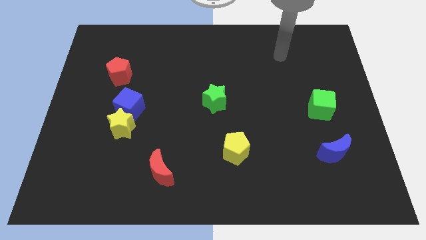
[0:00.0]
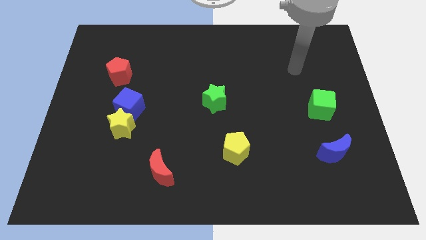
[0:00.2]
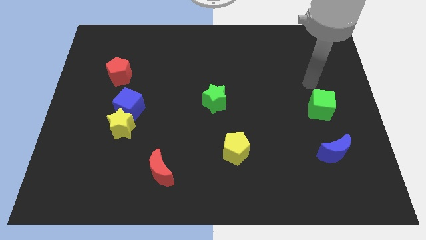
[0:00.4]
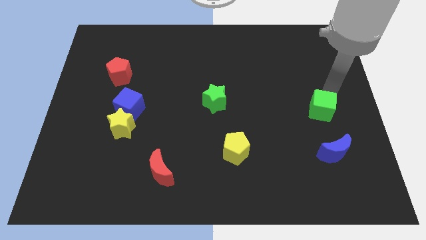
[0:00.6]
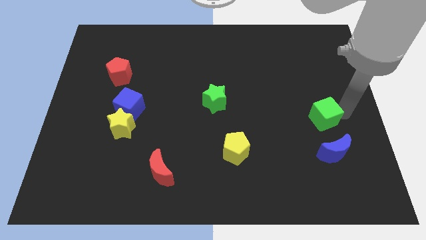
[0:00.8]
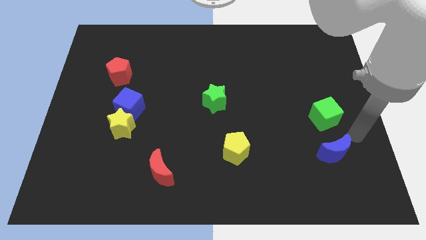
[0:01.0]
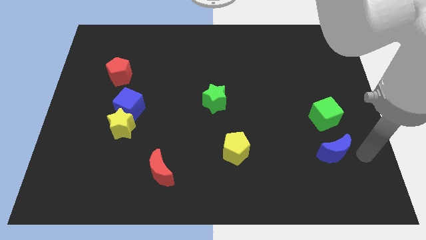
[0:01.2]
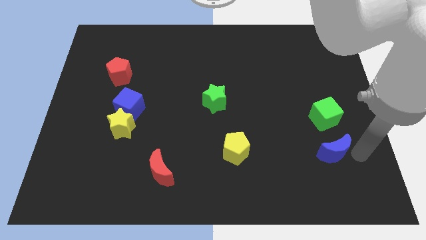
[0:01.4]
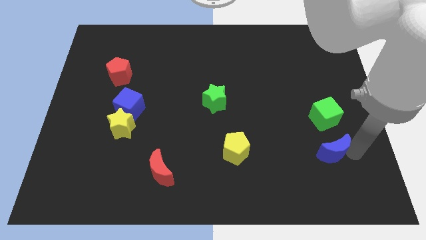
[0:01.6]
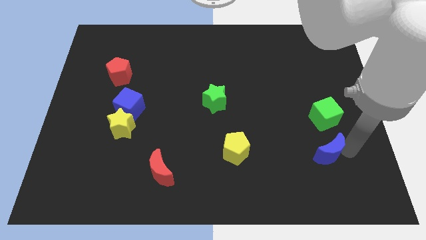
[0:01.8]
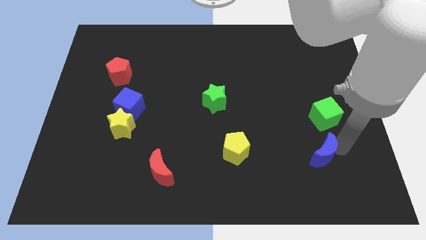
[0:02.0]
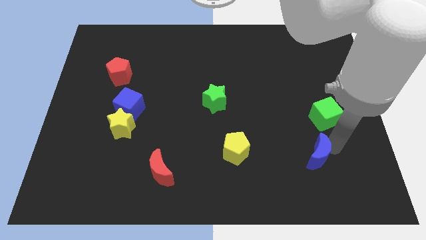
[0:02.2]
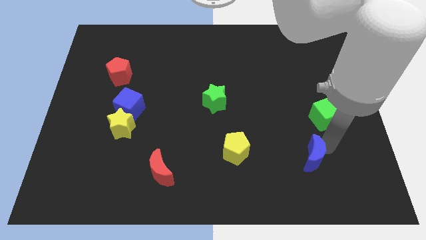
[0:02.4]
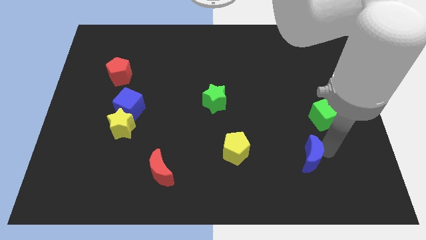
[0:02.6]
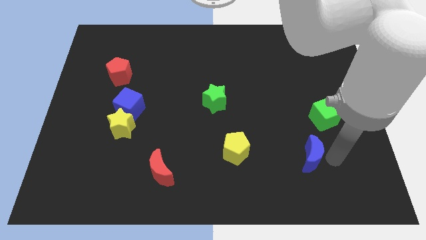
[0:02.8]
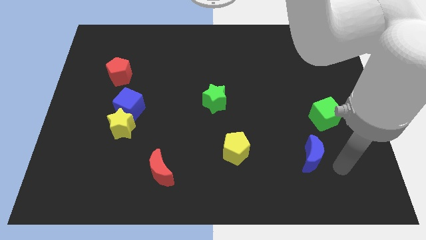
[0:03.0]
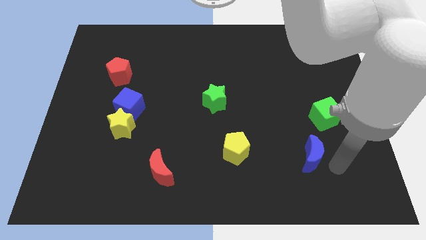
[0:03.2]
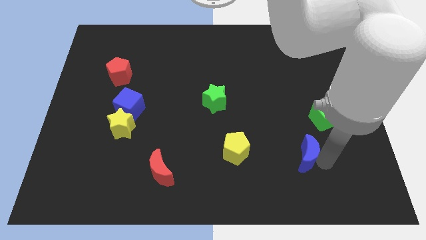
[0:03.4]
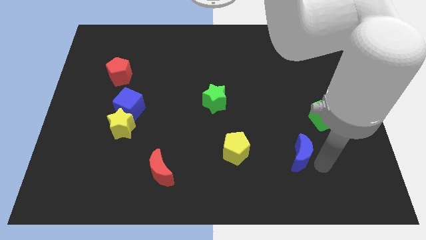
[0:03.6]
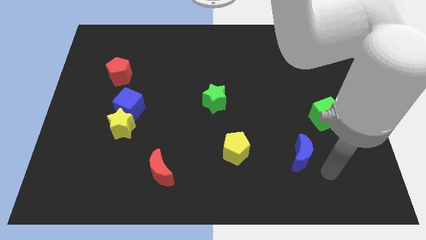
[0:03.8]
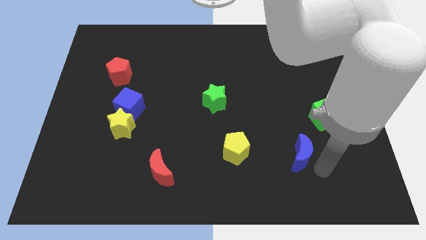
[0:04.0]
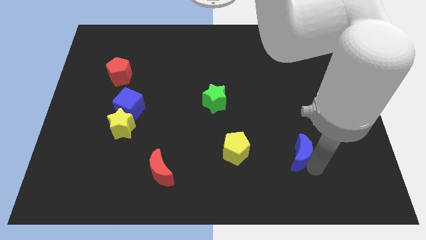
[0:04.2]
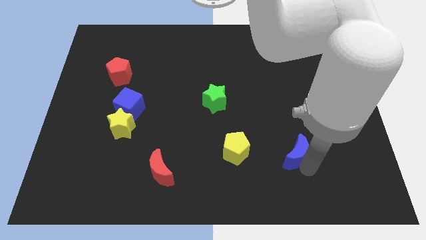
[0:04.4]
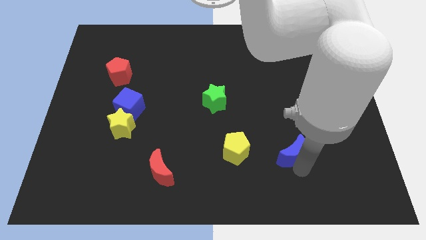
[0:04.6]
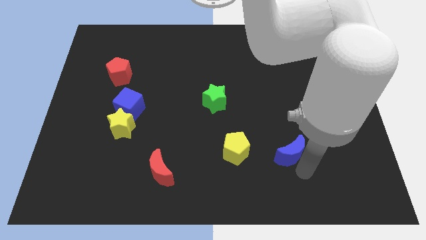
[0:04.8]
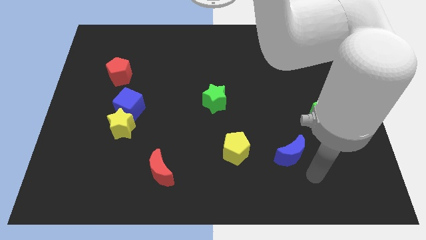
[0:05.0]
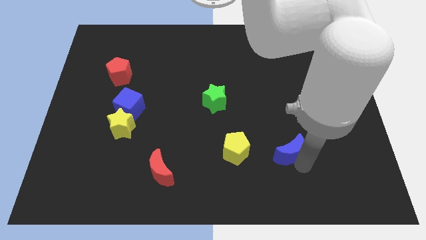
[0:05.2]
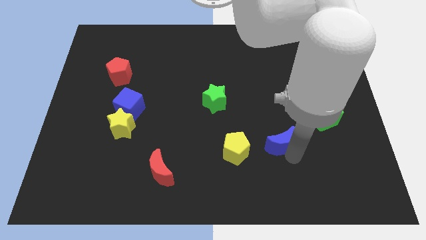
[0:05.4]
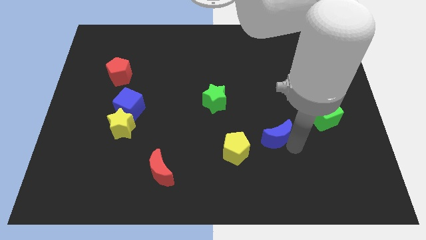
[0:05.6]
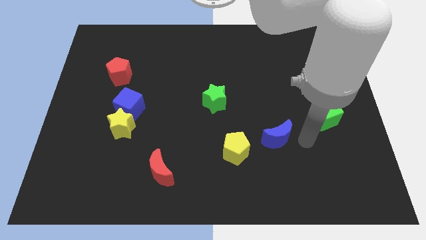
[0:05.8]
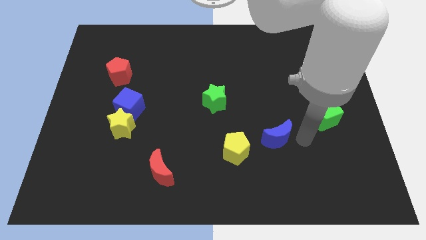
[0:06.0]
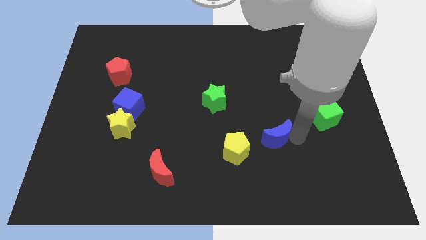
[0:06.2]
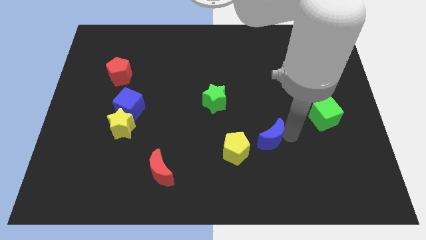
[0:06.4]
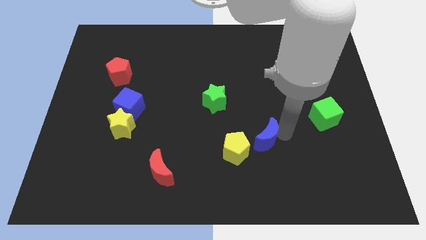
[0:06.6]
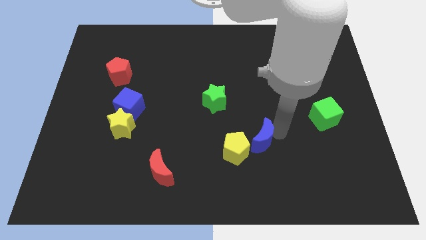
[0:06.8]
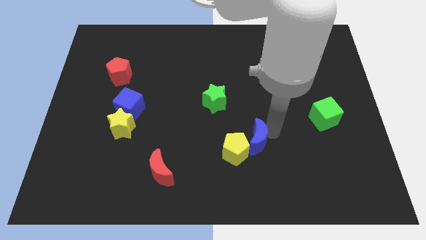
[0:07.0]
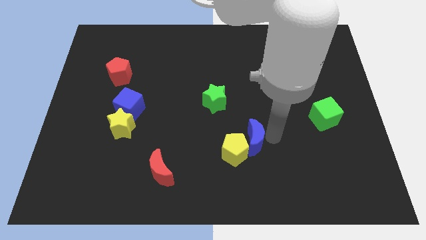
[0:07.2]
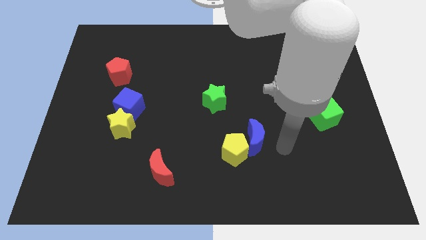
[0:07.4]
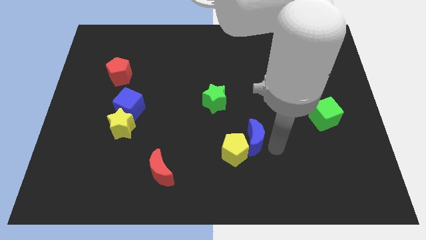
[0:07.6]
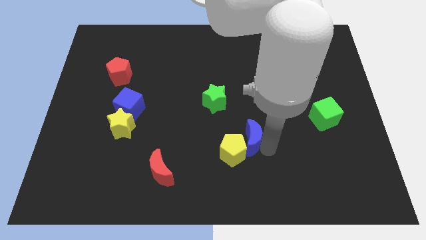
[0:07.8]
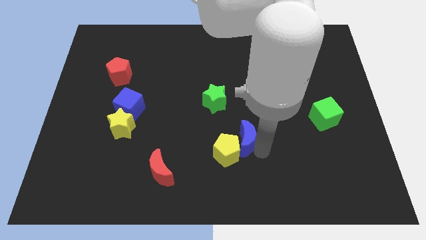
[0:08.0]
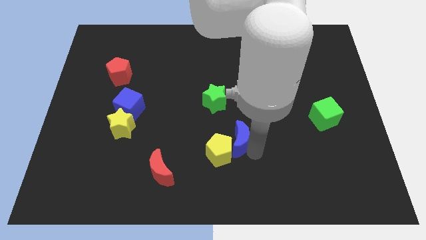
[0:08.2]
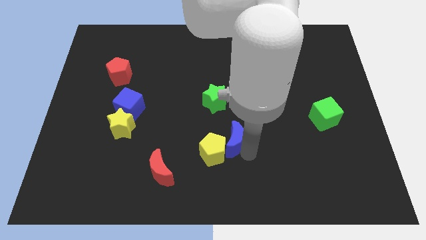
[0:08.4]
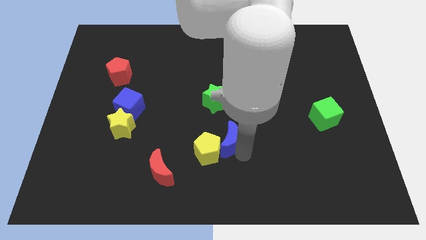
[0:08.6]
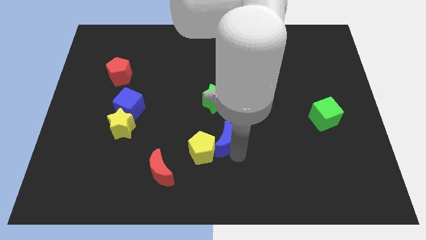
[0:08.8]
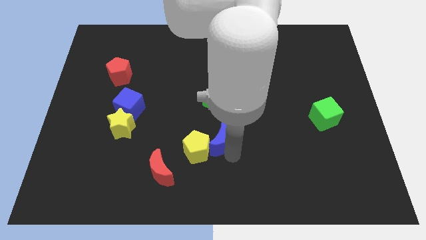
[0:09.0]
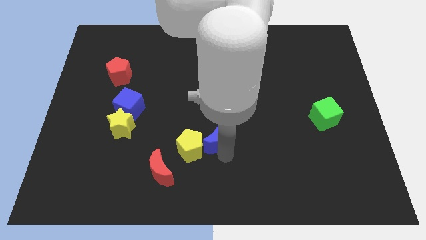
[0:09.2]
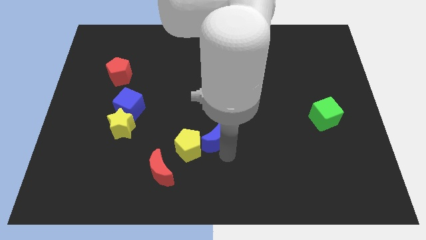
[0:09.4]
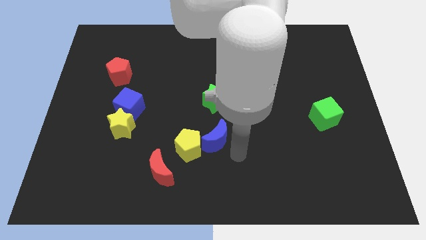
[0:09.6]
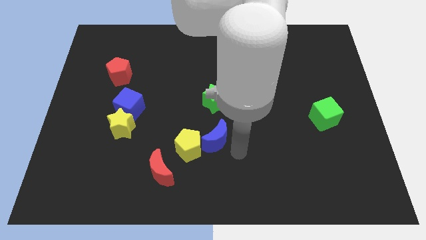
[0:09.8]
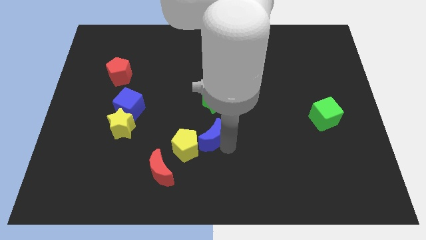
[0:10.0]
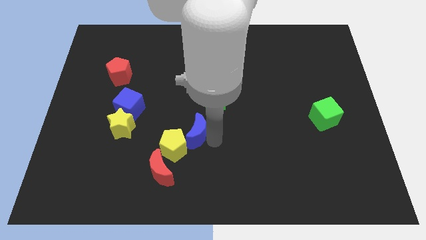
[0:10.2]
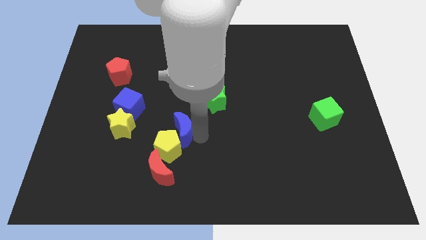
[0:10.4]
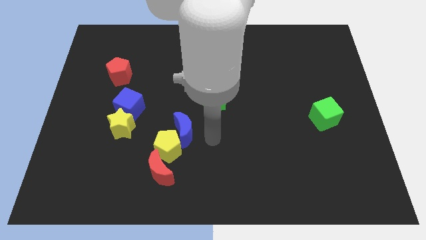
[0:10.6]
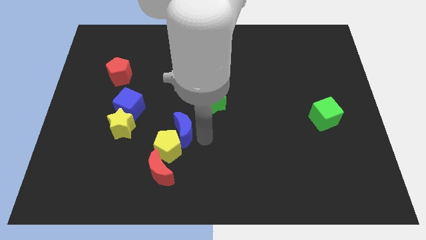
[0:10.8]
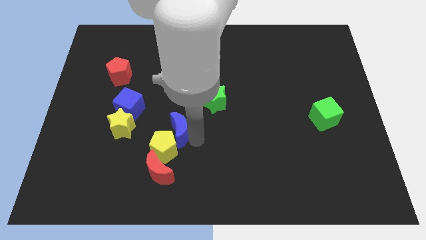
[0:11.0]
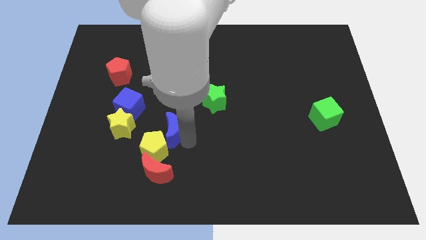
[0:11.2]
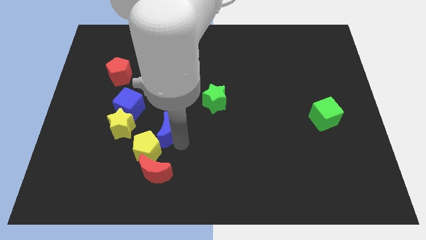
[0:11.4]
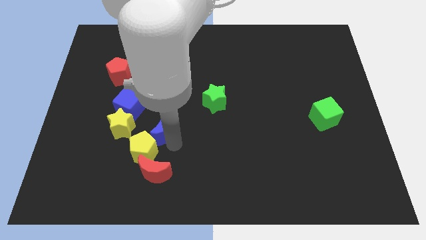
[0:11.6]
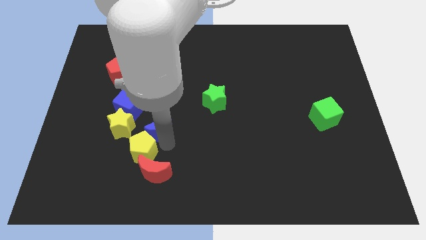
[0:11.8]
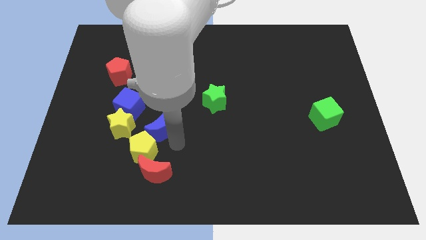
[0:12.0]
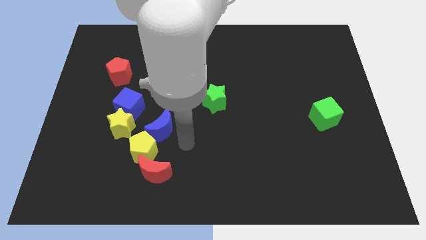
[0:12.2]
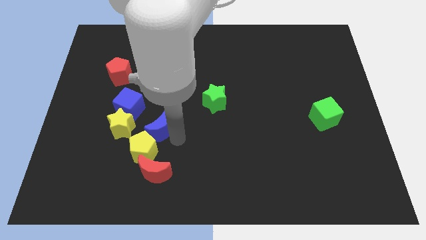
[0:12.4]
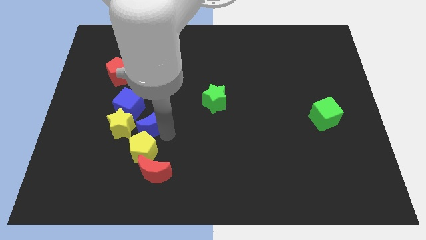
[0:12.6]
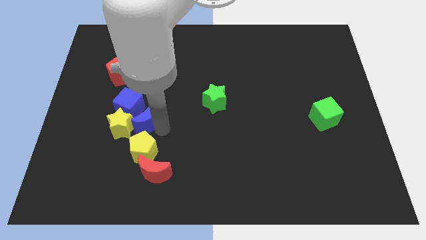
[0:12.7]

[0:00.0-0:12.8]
put the blue moon towards the yellow star
